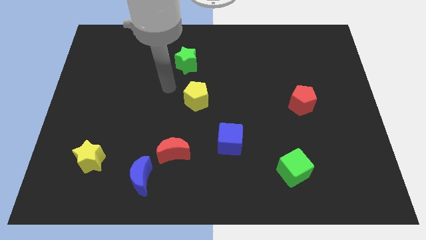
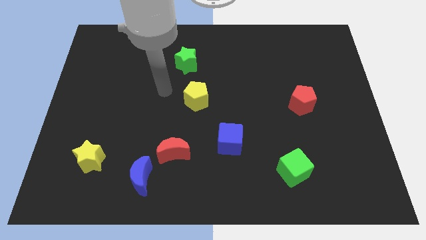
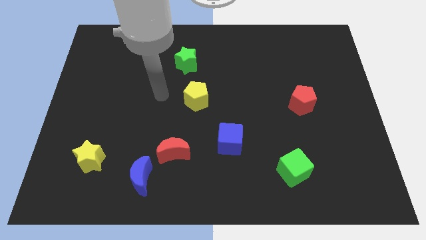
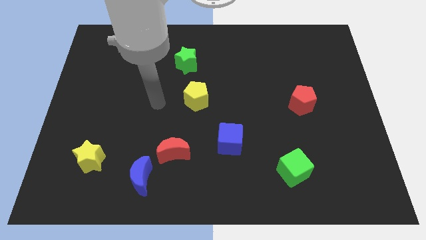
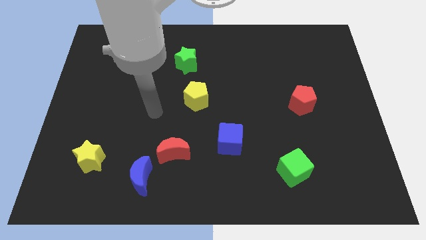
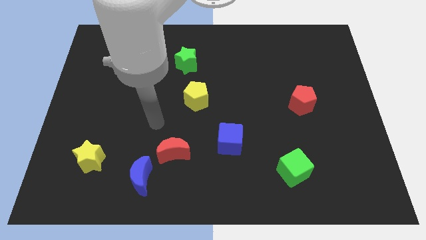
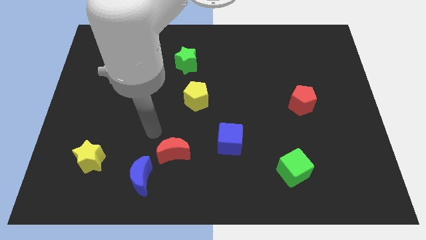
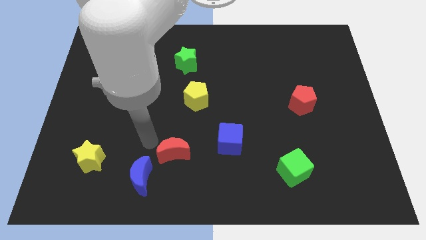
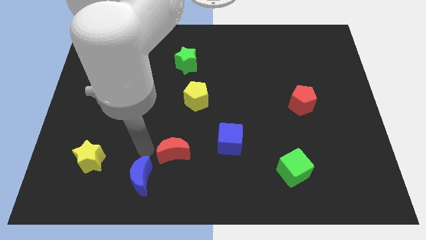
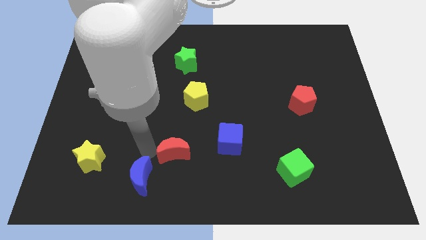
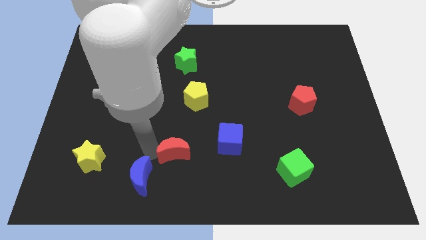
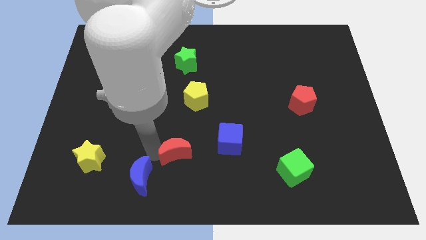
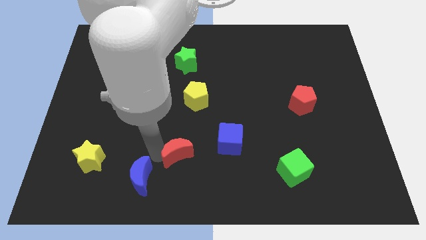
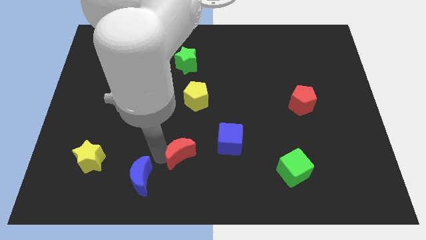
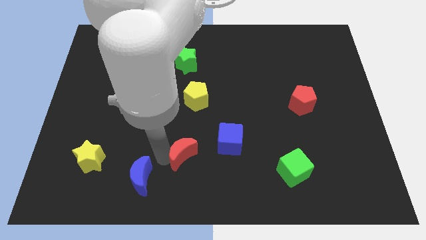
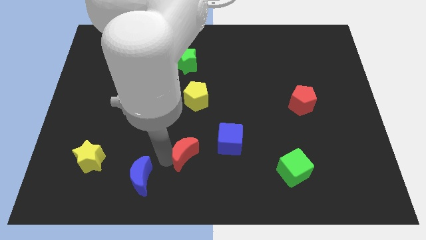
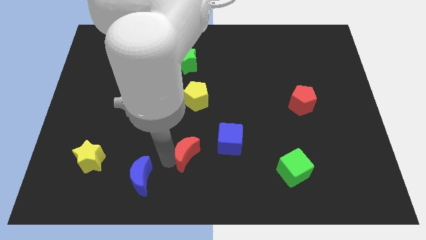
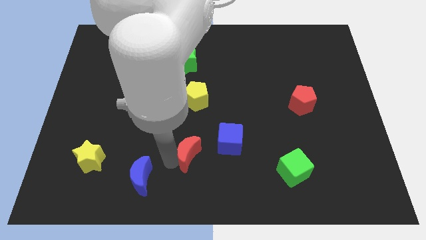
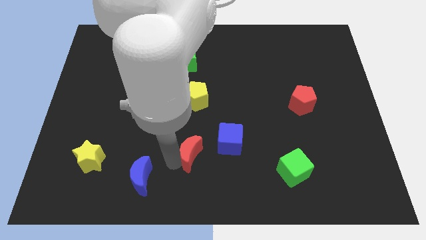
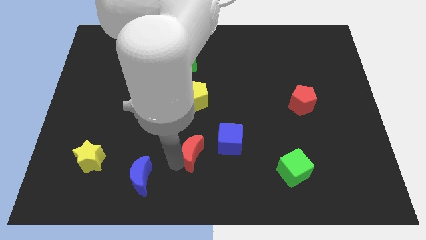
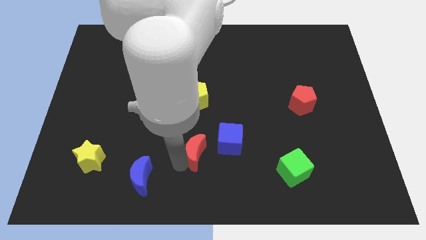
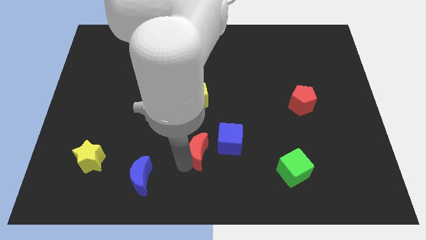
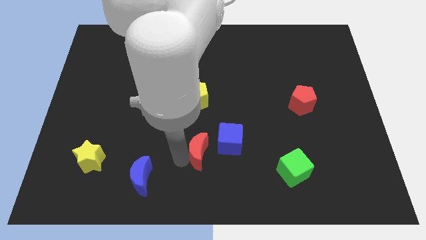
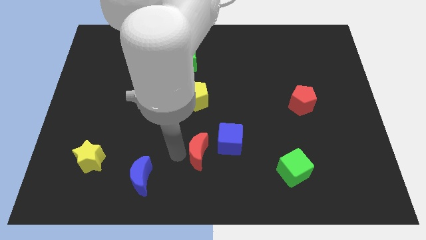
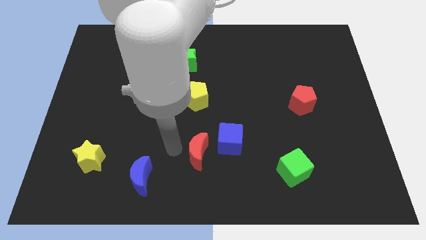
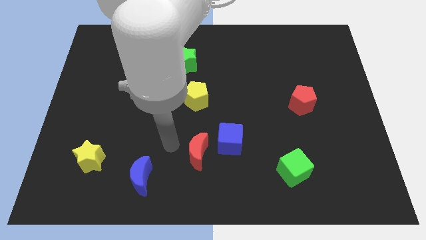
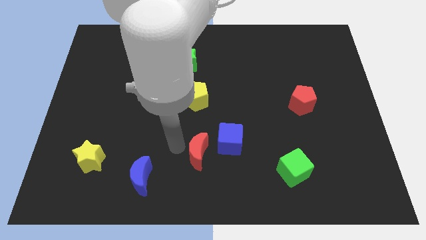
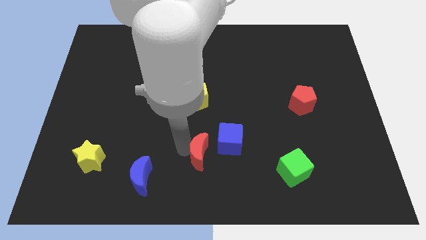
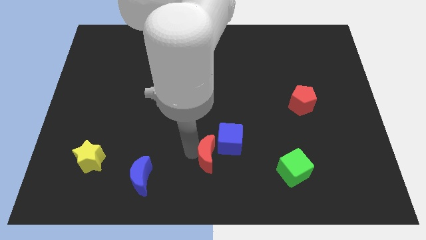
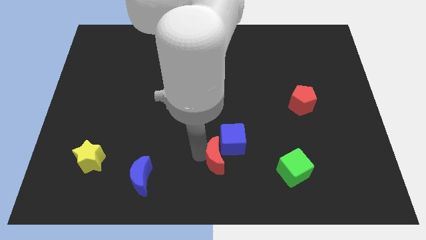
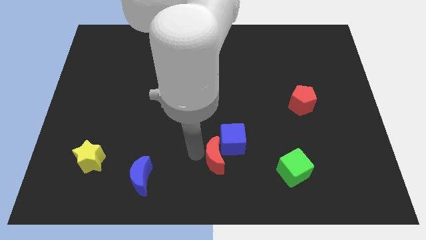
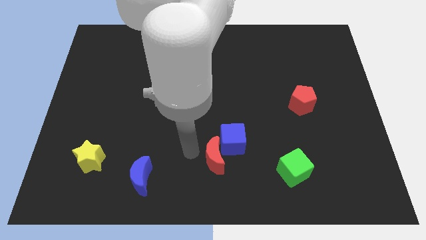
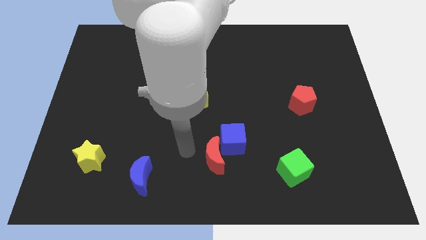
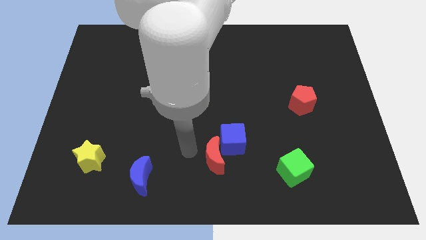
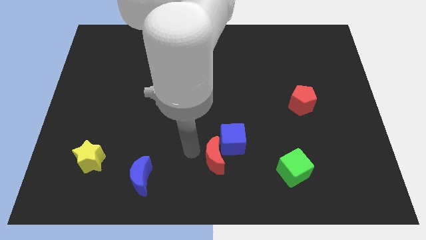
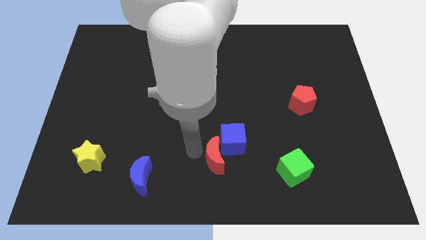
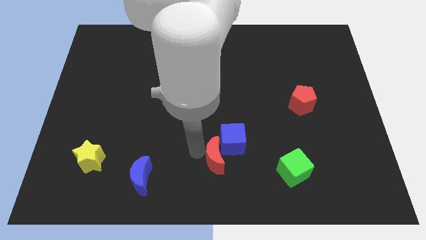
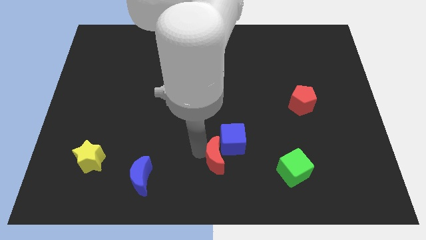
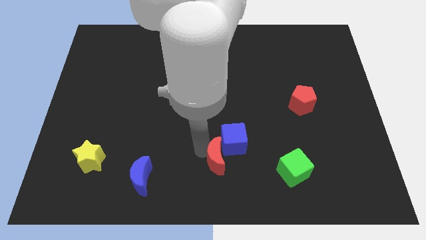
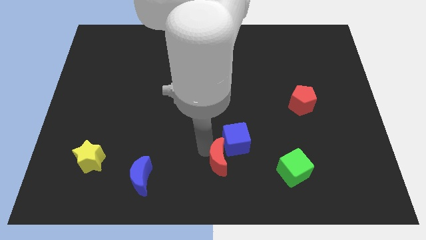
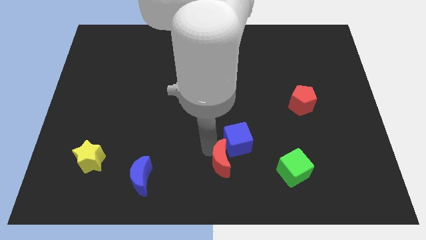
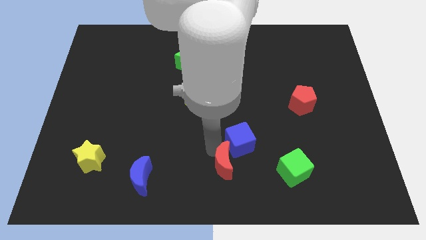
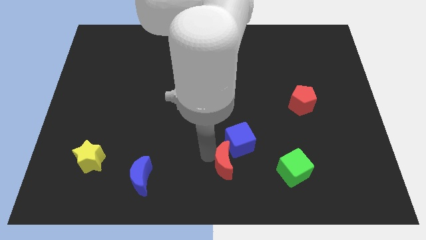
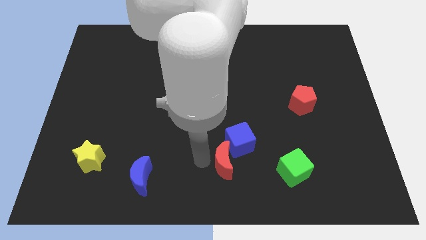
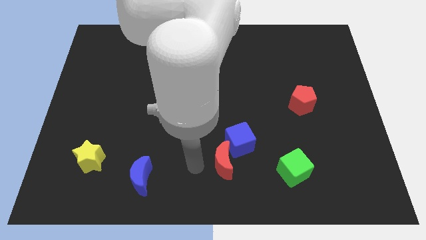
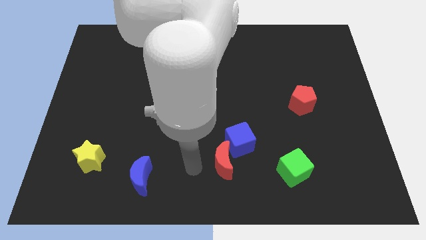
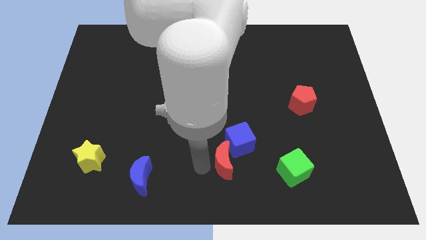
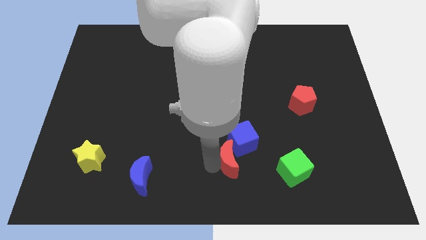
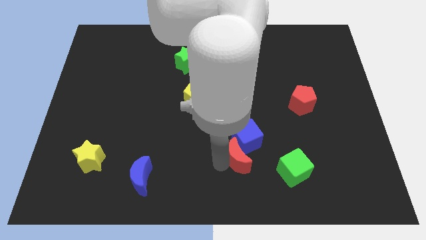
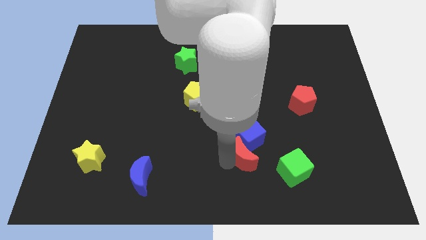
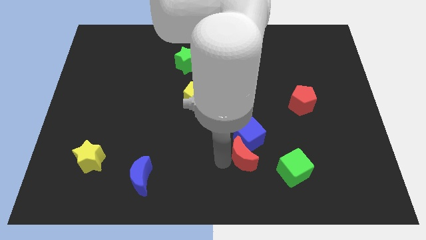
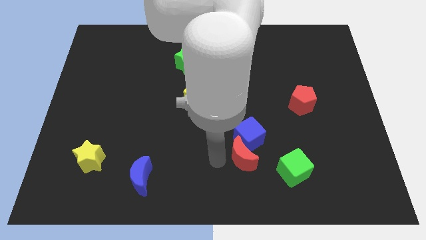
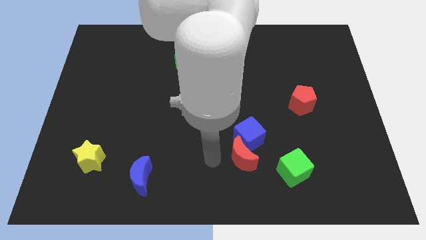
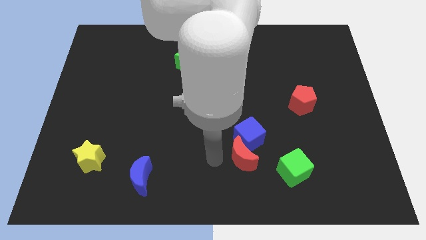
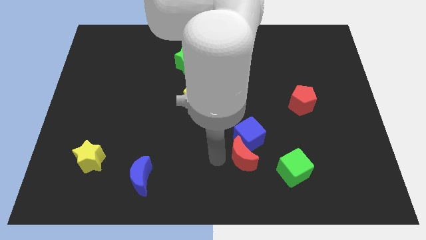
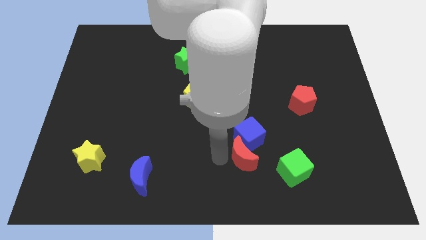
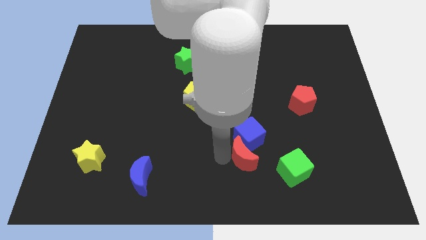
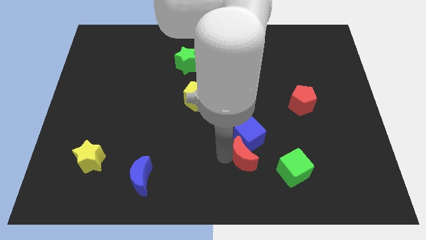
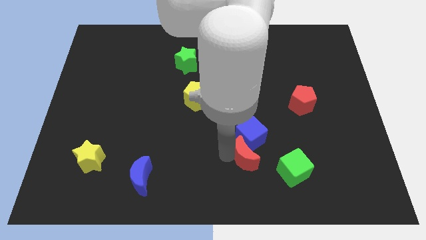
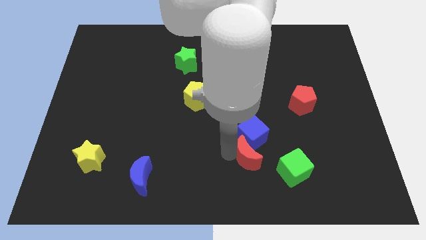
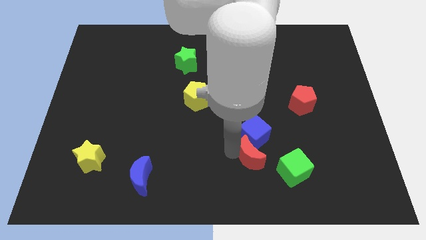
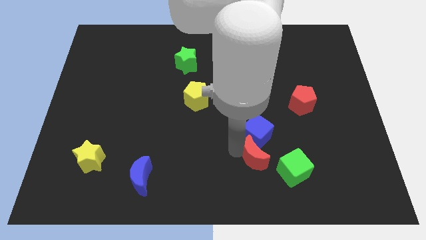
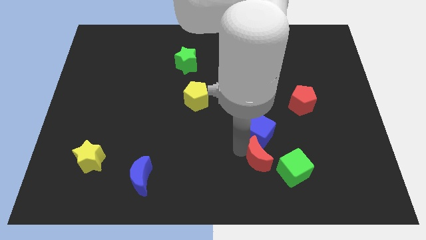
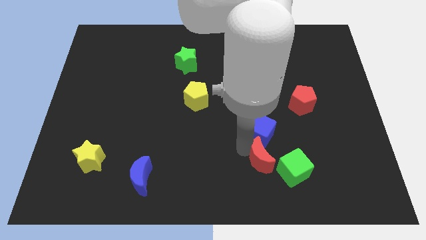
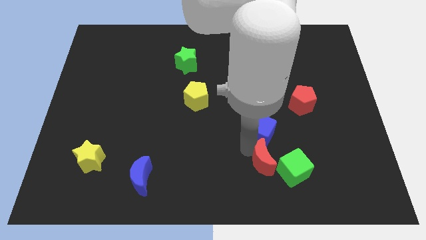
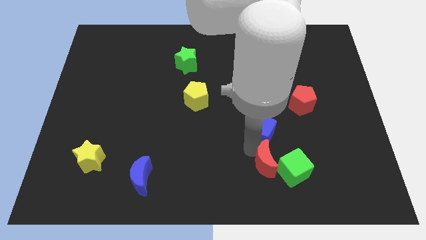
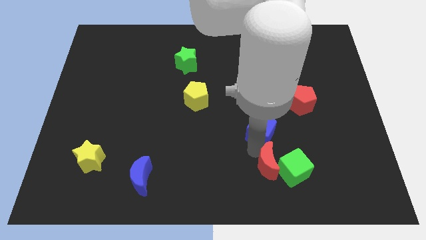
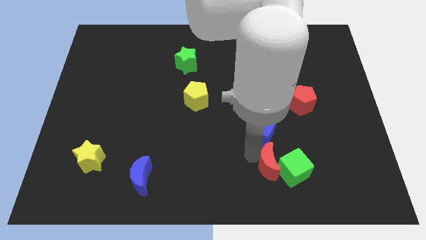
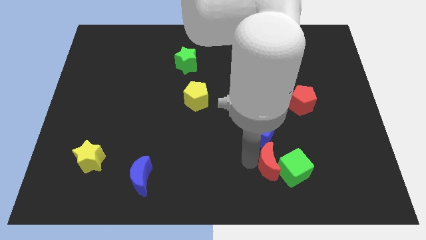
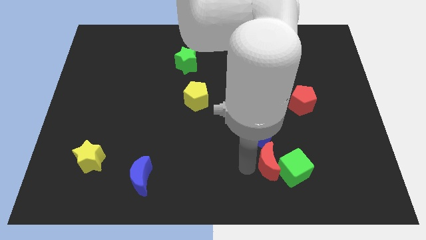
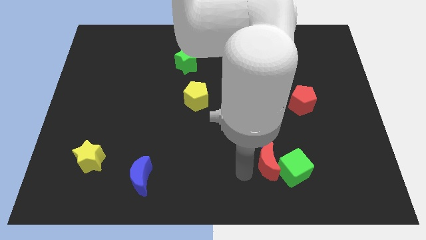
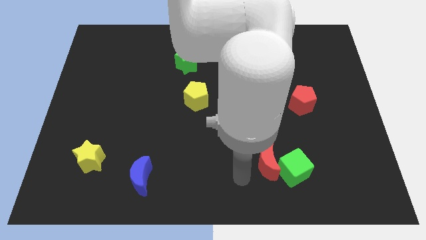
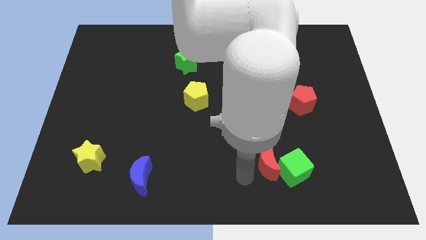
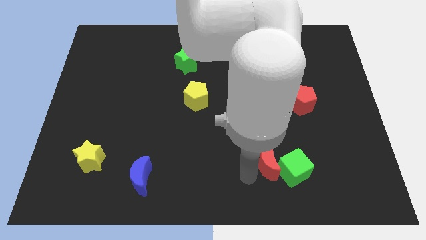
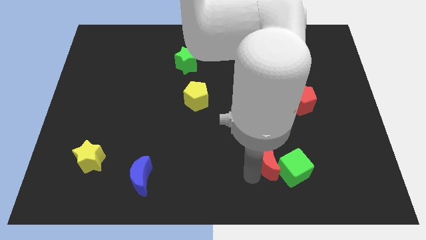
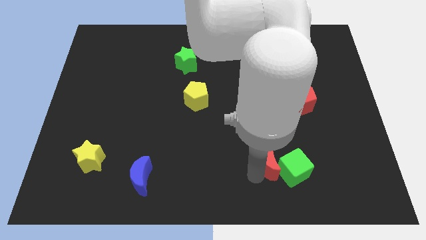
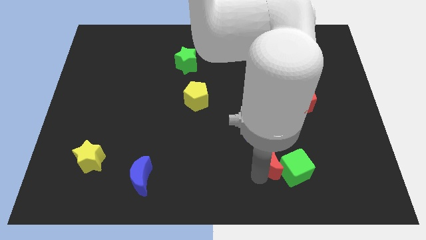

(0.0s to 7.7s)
push the red moon right
